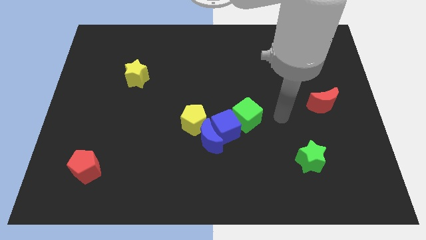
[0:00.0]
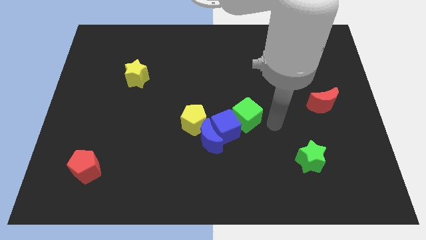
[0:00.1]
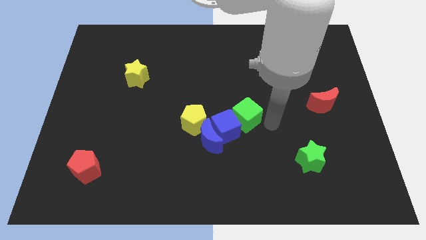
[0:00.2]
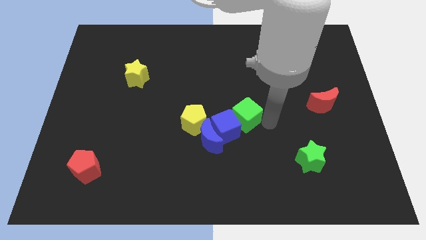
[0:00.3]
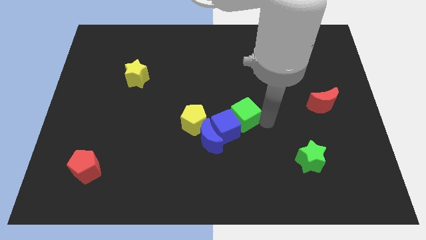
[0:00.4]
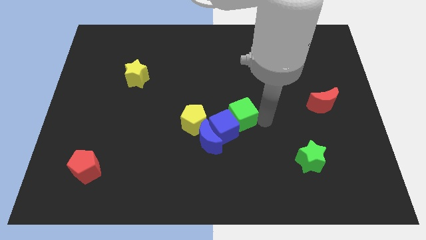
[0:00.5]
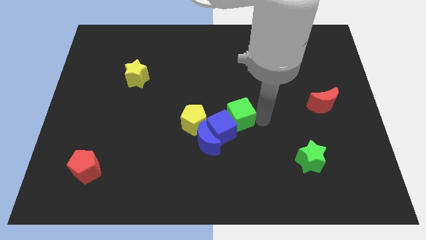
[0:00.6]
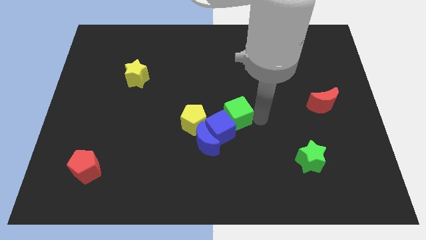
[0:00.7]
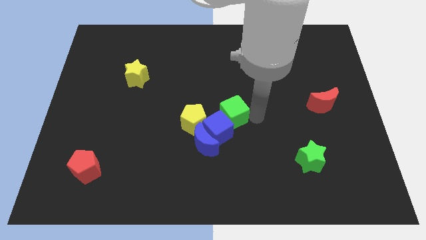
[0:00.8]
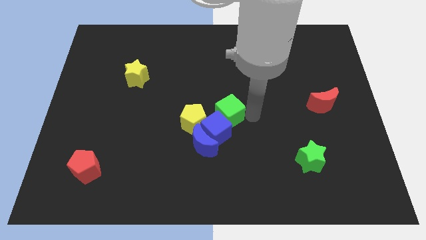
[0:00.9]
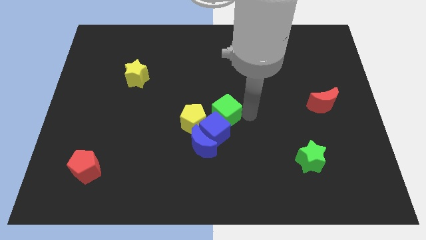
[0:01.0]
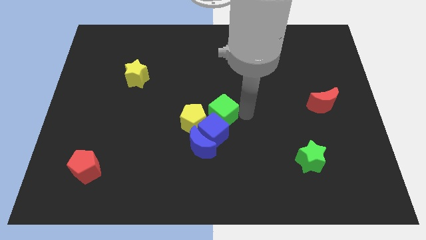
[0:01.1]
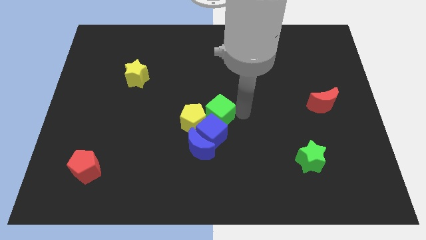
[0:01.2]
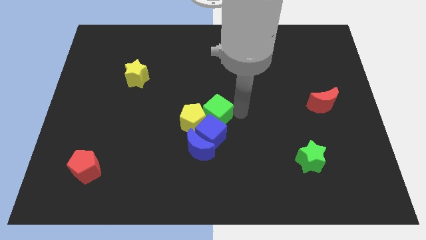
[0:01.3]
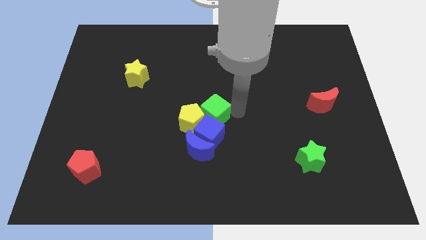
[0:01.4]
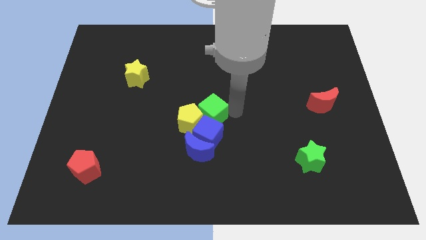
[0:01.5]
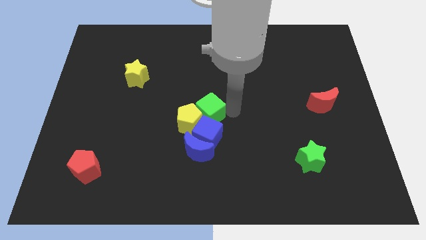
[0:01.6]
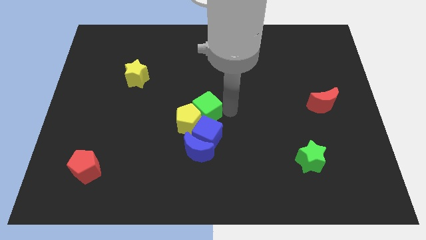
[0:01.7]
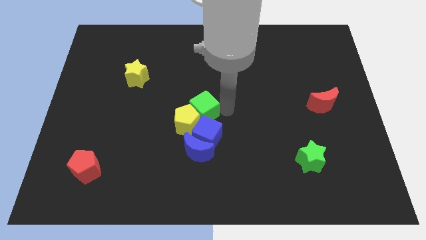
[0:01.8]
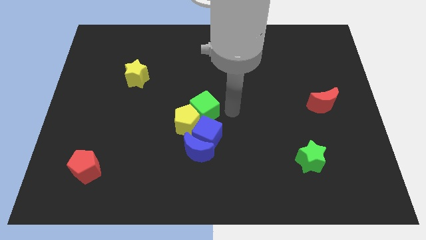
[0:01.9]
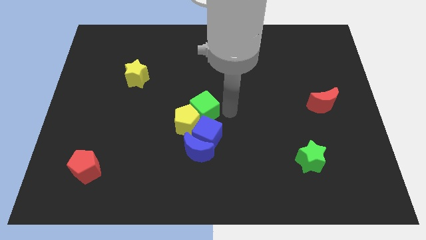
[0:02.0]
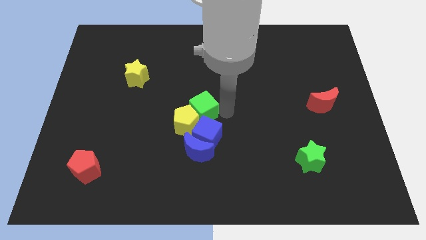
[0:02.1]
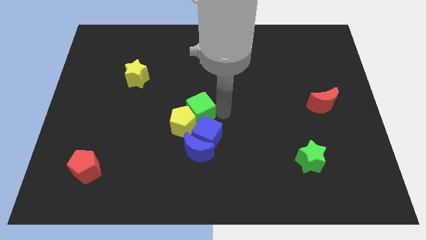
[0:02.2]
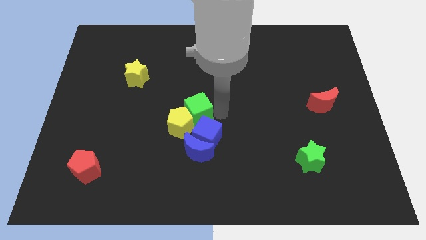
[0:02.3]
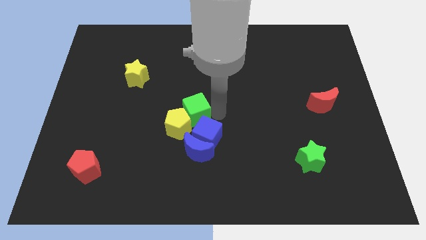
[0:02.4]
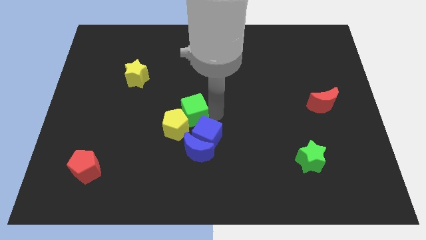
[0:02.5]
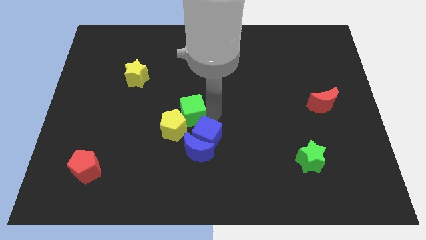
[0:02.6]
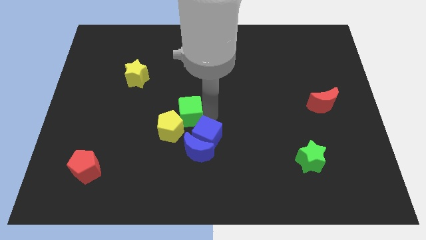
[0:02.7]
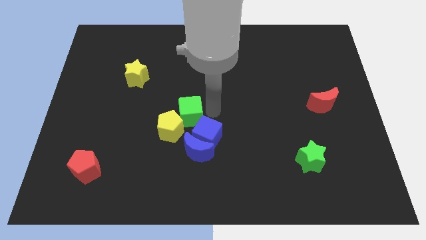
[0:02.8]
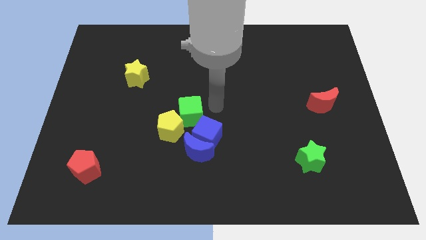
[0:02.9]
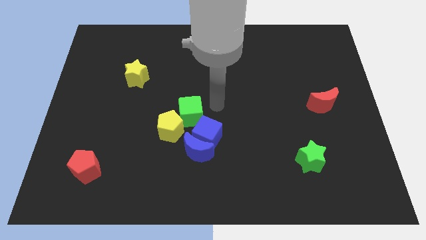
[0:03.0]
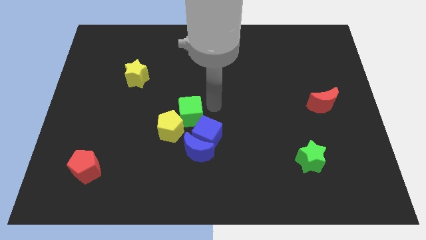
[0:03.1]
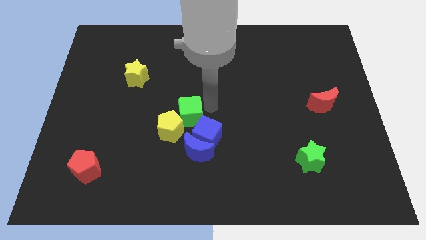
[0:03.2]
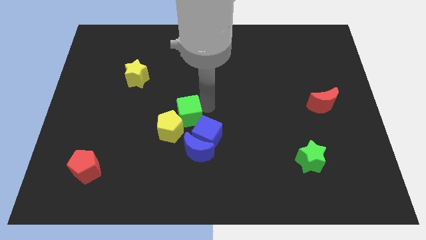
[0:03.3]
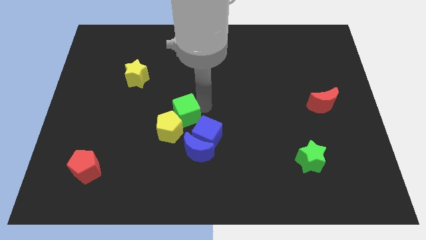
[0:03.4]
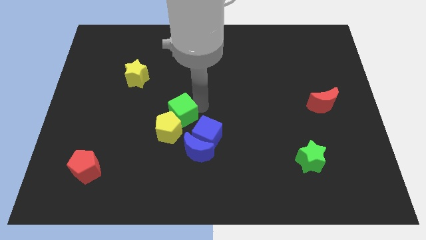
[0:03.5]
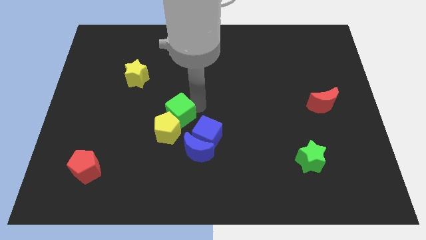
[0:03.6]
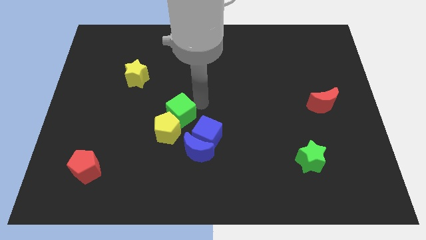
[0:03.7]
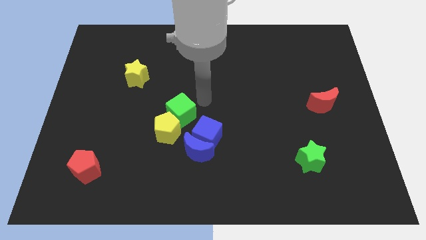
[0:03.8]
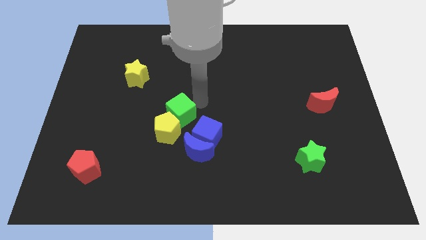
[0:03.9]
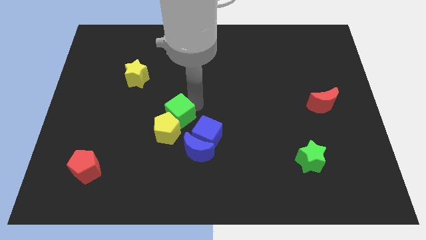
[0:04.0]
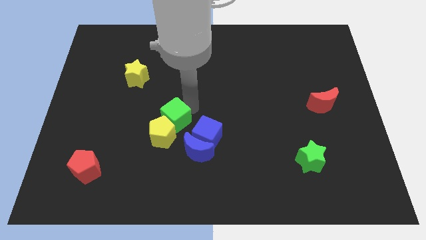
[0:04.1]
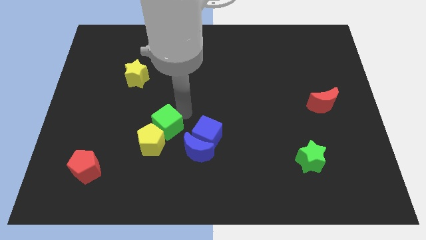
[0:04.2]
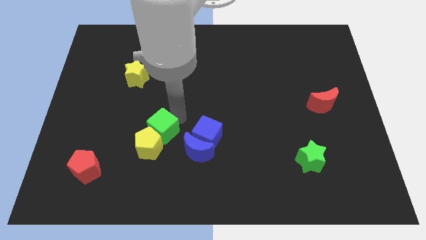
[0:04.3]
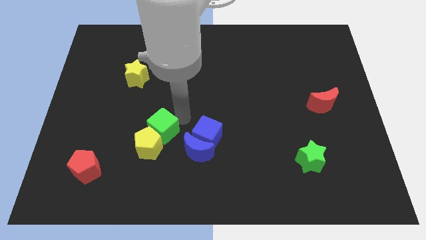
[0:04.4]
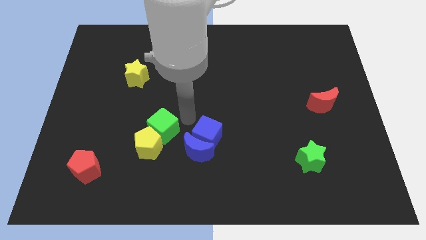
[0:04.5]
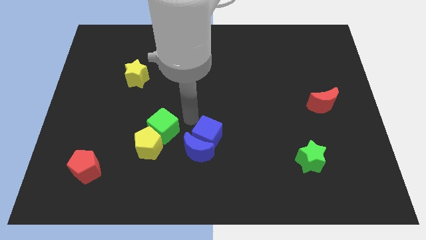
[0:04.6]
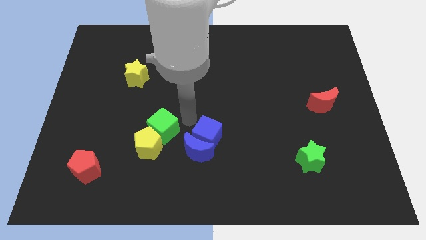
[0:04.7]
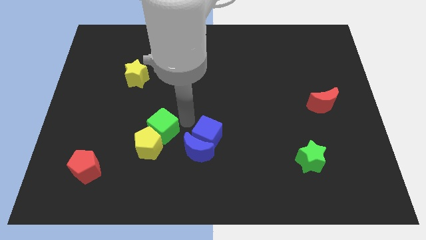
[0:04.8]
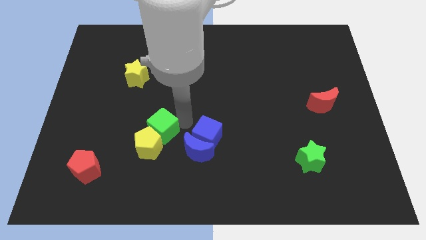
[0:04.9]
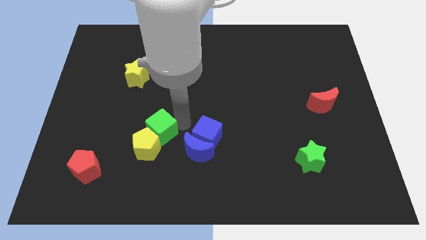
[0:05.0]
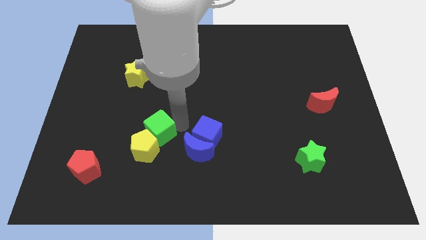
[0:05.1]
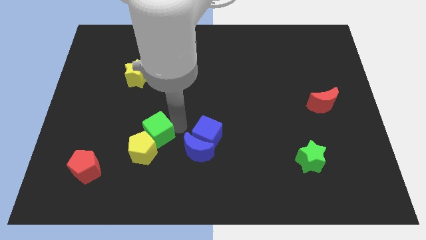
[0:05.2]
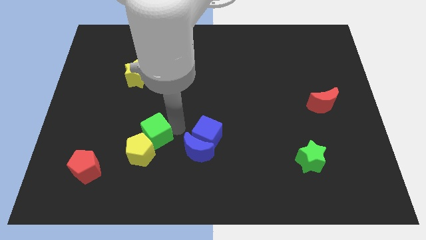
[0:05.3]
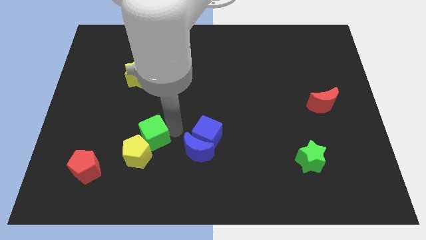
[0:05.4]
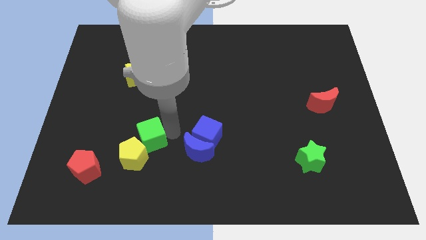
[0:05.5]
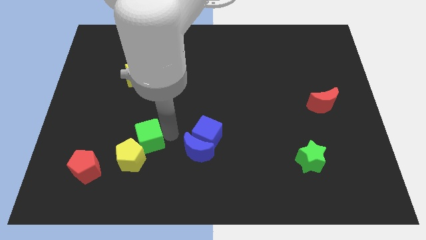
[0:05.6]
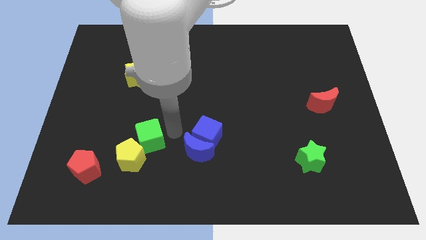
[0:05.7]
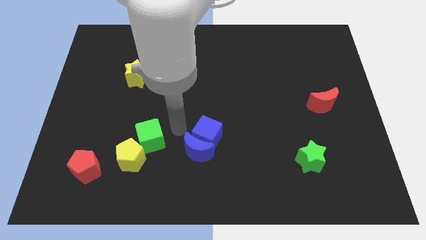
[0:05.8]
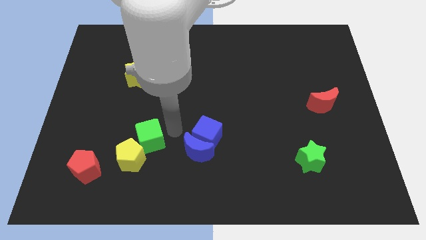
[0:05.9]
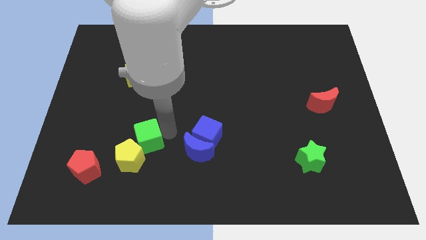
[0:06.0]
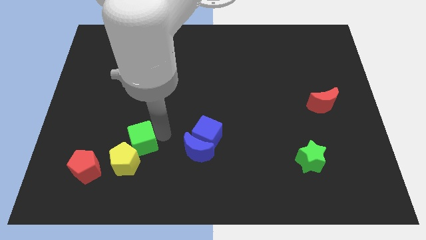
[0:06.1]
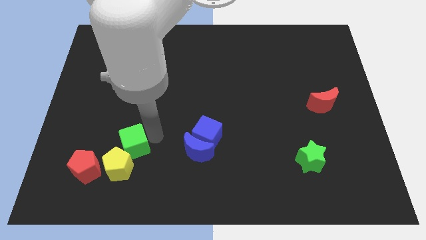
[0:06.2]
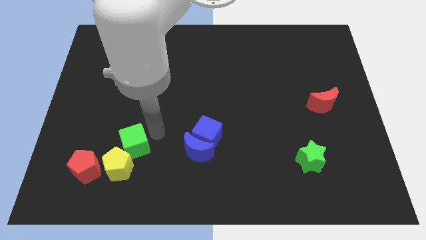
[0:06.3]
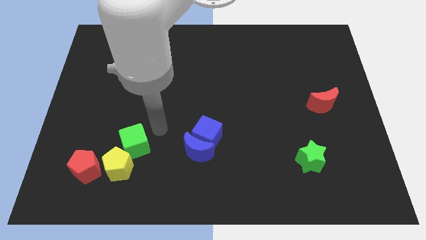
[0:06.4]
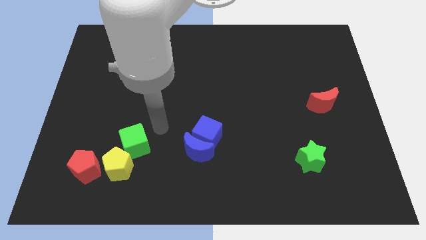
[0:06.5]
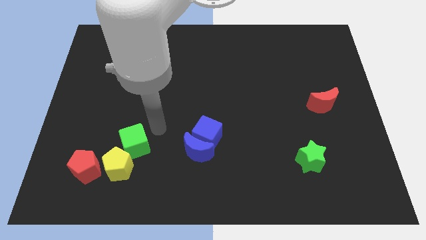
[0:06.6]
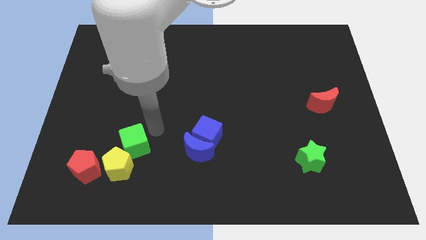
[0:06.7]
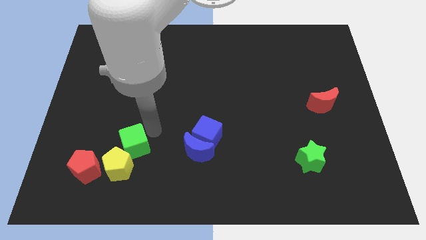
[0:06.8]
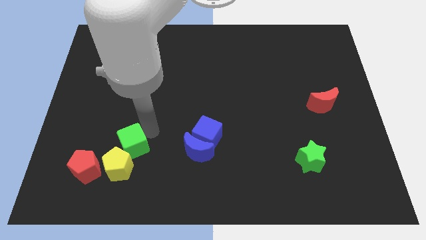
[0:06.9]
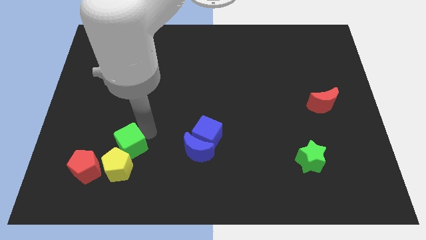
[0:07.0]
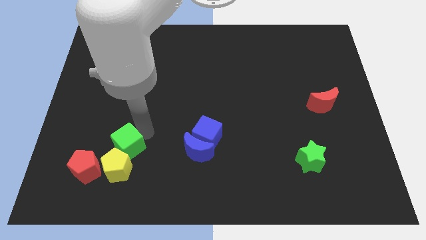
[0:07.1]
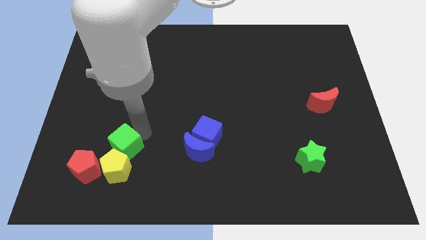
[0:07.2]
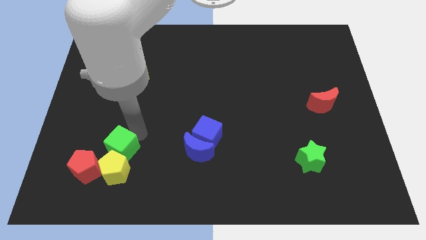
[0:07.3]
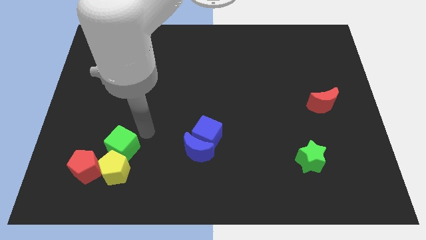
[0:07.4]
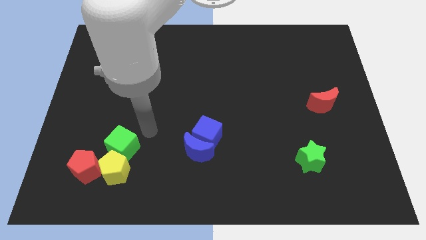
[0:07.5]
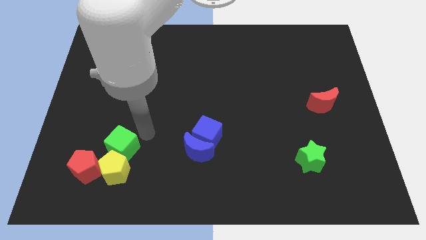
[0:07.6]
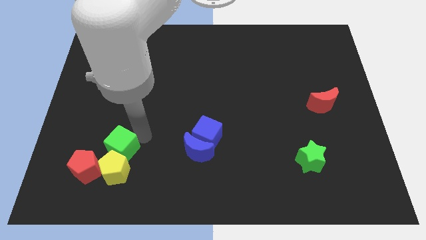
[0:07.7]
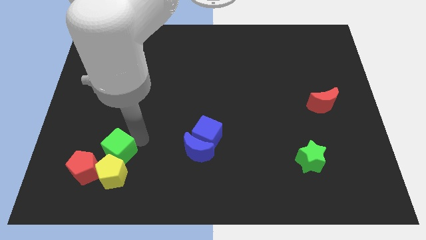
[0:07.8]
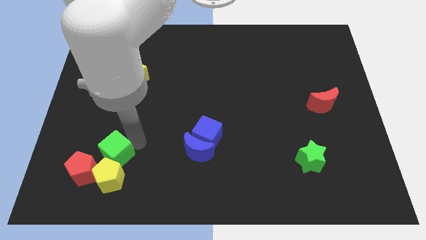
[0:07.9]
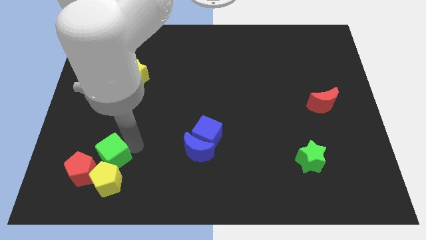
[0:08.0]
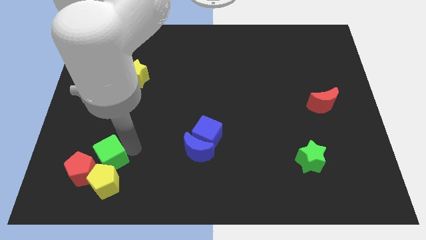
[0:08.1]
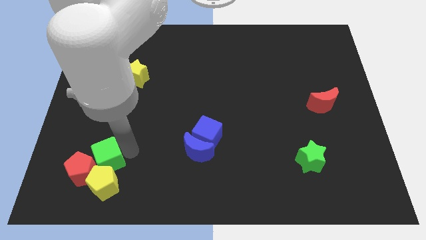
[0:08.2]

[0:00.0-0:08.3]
slide the green cube to the red pentagon
